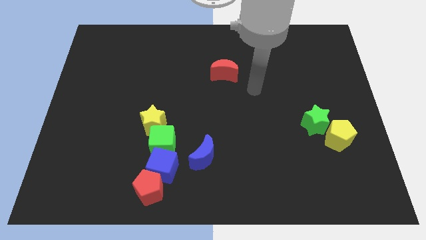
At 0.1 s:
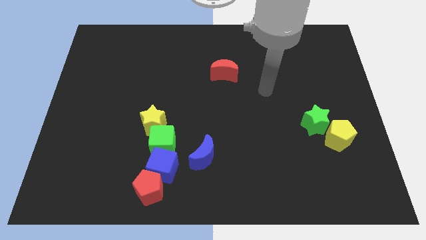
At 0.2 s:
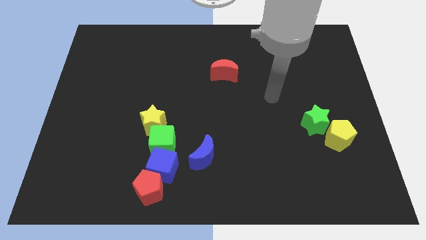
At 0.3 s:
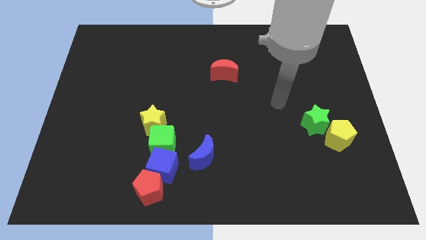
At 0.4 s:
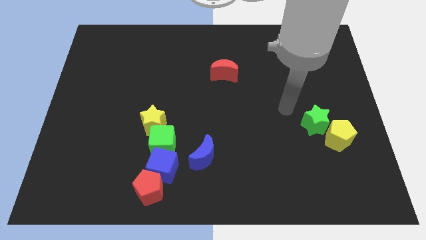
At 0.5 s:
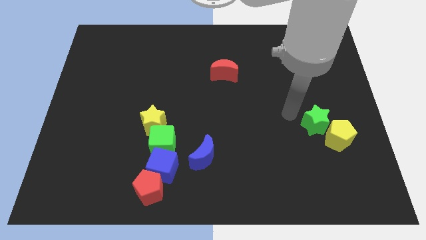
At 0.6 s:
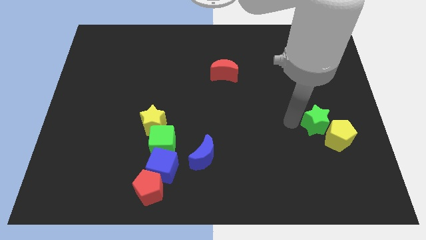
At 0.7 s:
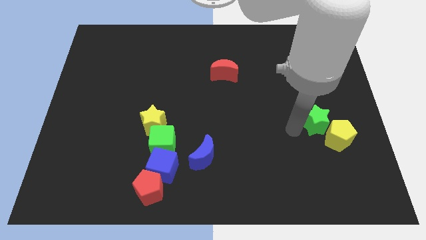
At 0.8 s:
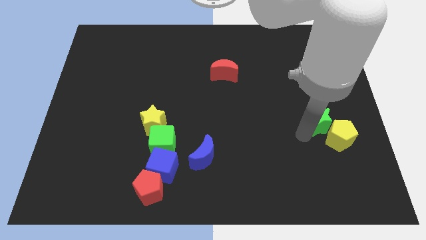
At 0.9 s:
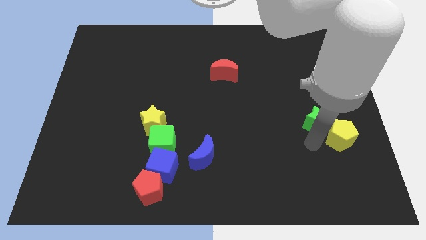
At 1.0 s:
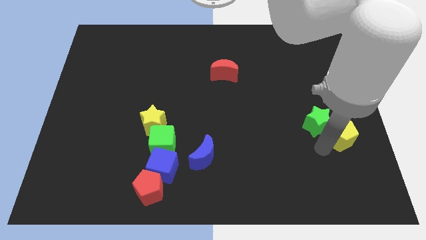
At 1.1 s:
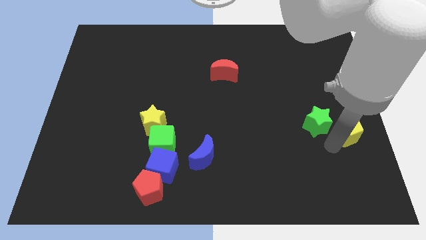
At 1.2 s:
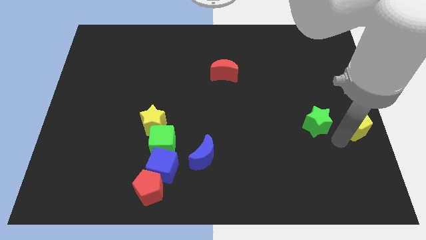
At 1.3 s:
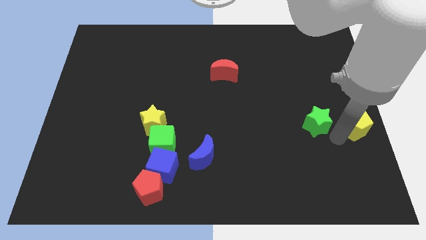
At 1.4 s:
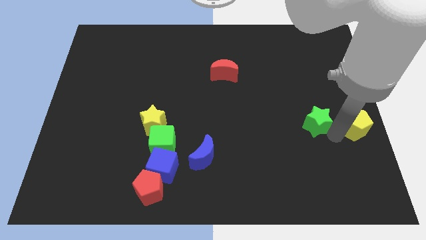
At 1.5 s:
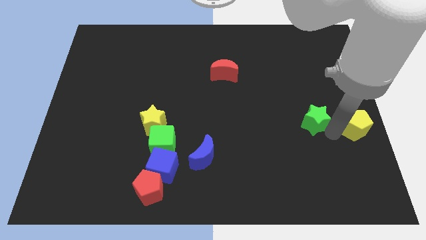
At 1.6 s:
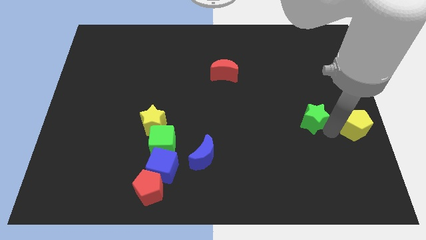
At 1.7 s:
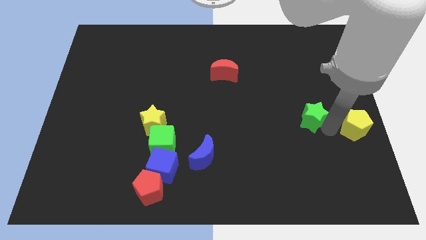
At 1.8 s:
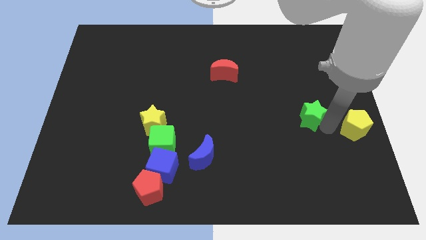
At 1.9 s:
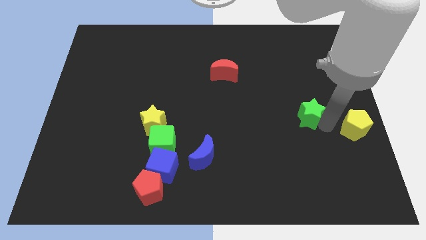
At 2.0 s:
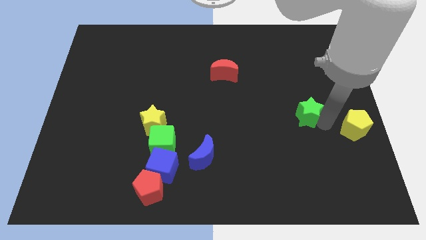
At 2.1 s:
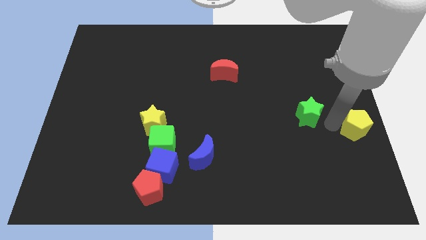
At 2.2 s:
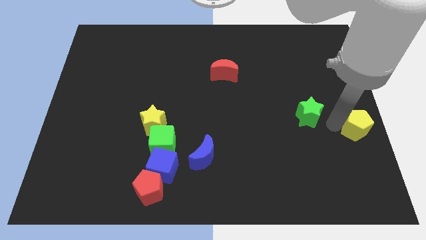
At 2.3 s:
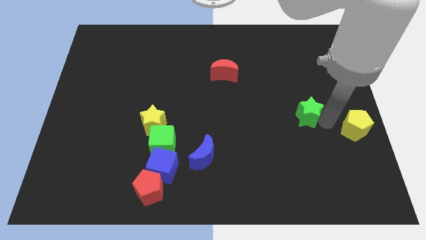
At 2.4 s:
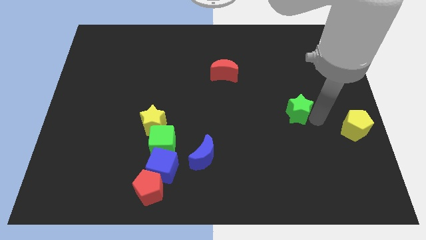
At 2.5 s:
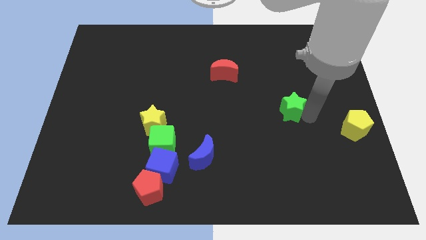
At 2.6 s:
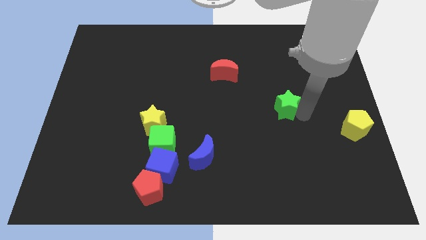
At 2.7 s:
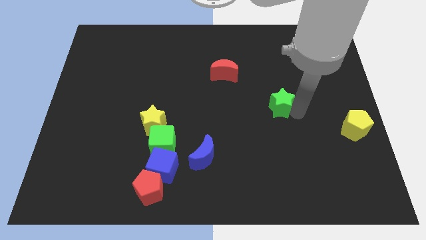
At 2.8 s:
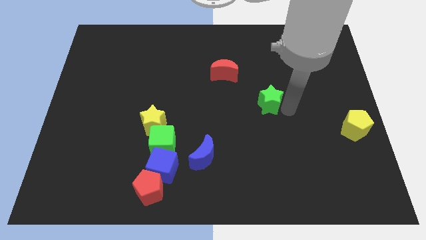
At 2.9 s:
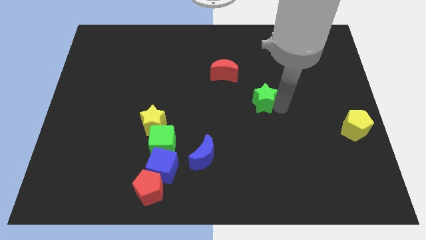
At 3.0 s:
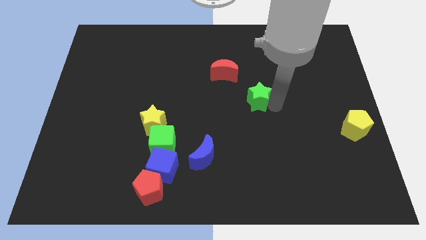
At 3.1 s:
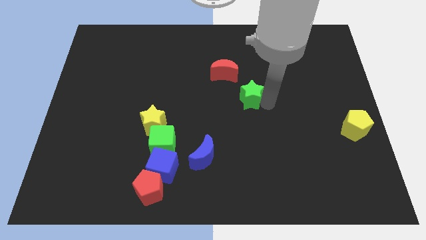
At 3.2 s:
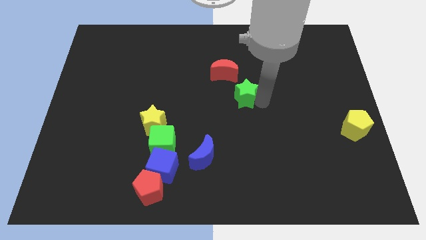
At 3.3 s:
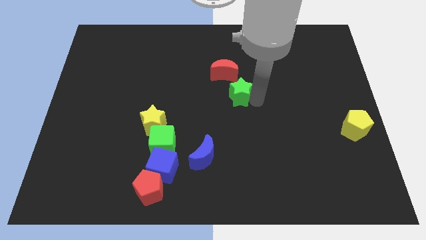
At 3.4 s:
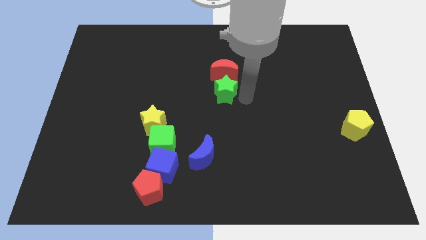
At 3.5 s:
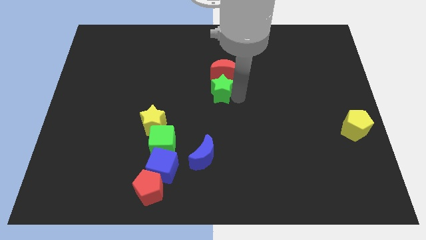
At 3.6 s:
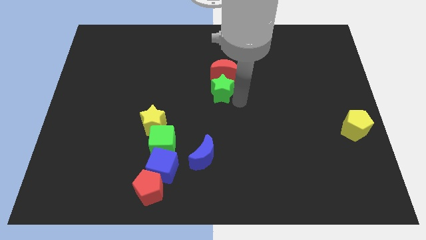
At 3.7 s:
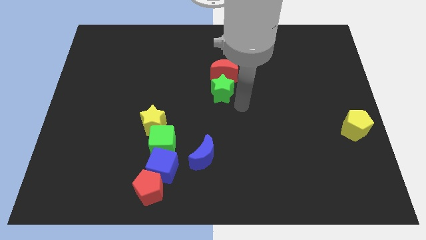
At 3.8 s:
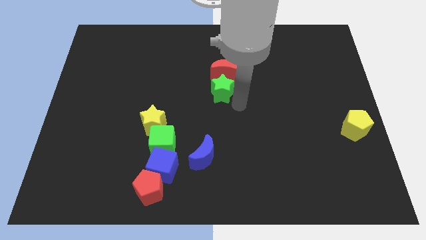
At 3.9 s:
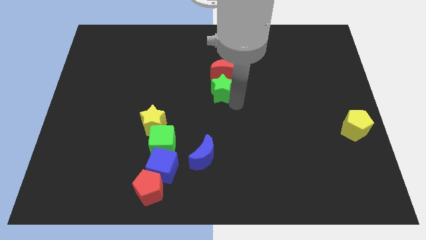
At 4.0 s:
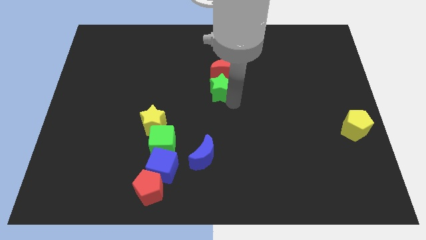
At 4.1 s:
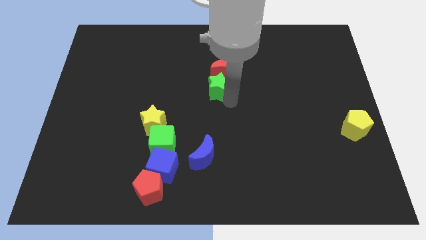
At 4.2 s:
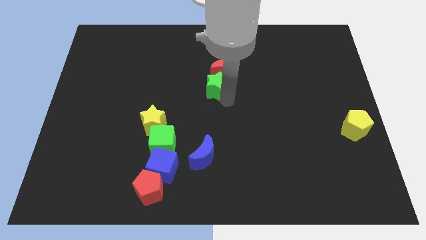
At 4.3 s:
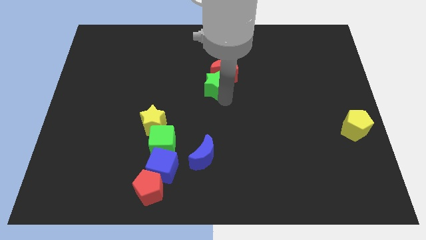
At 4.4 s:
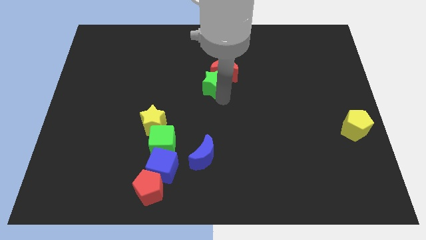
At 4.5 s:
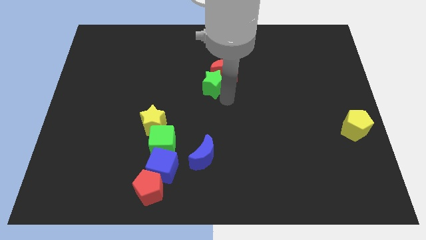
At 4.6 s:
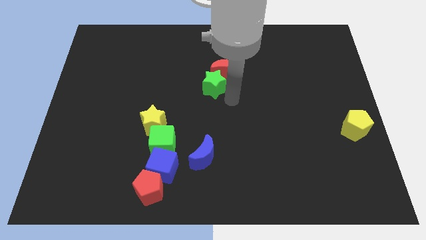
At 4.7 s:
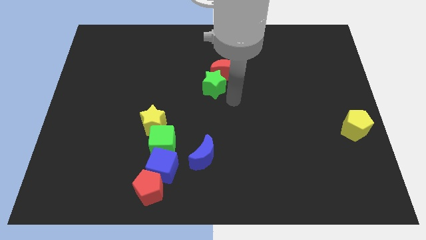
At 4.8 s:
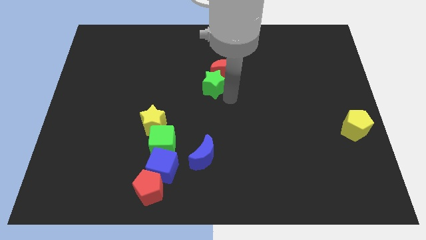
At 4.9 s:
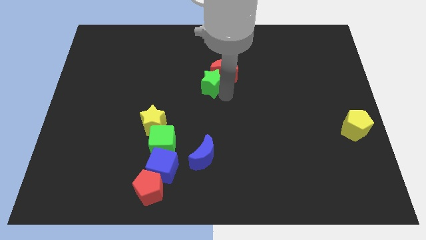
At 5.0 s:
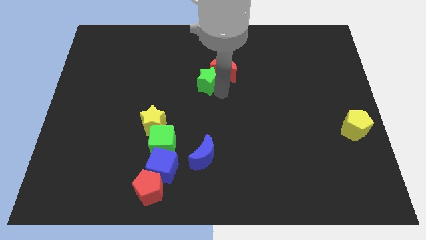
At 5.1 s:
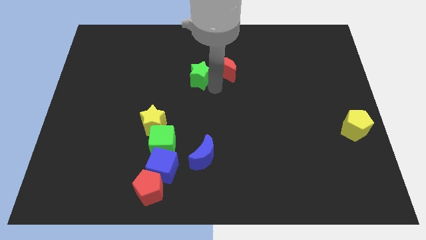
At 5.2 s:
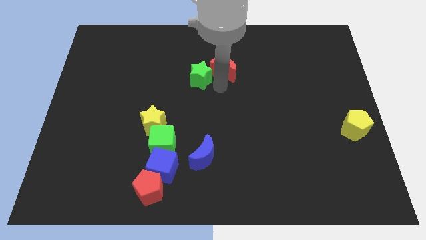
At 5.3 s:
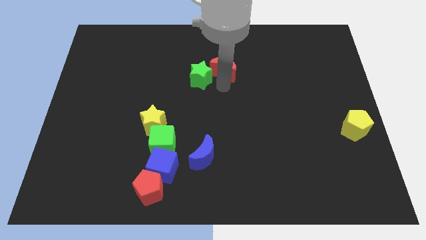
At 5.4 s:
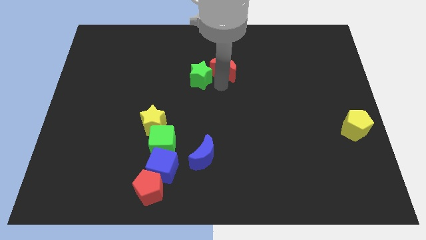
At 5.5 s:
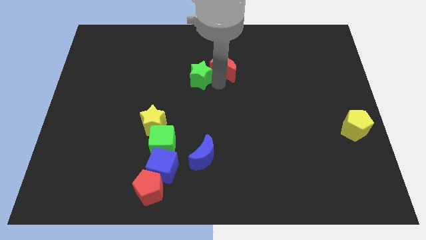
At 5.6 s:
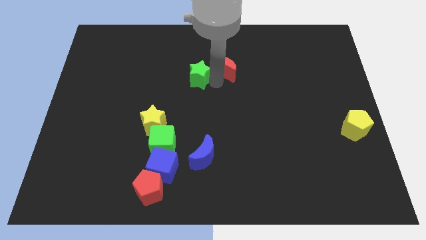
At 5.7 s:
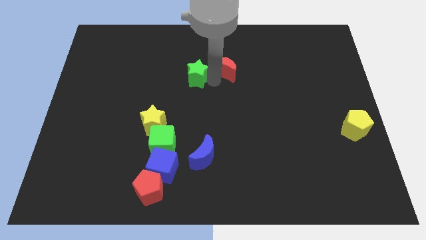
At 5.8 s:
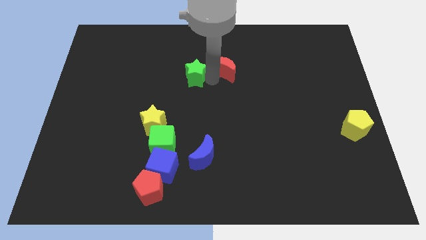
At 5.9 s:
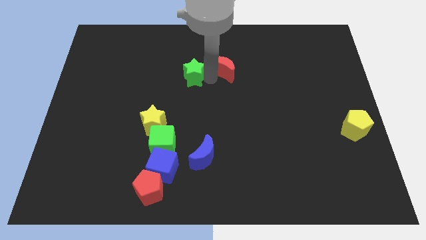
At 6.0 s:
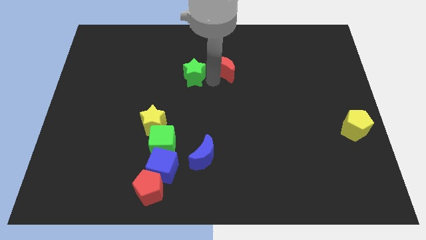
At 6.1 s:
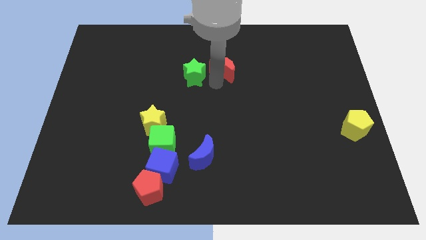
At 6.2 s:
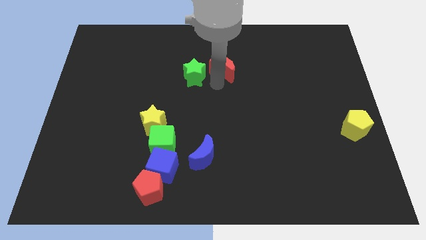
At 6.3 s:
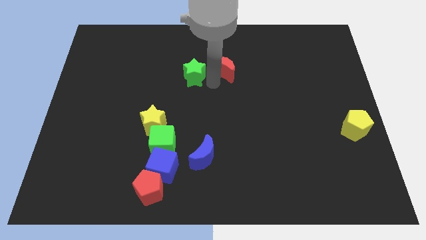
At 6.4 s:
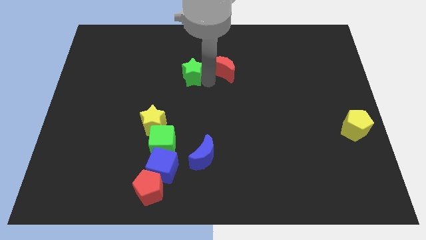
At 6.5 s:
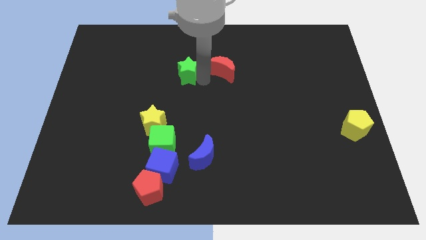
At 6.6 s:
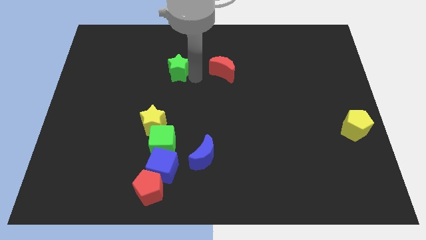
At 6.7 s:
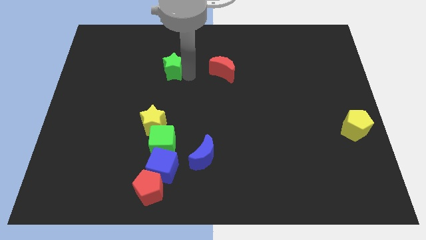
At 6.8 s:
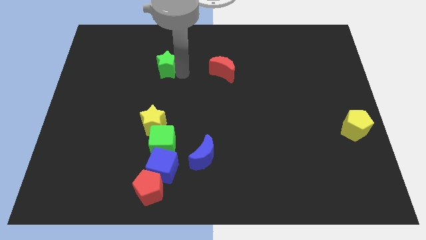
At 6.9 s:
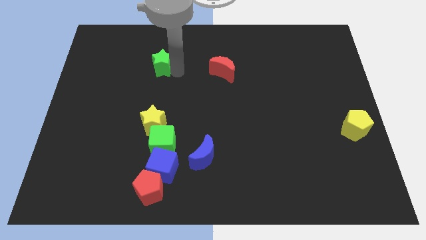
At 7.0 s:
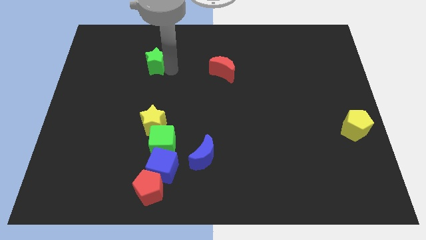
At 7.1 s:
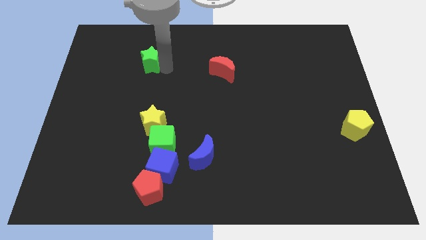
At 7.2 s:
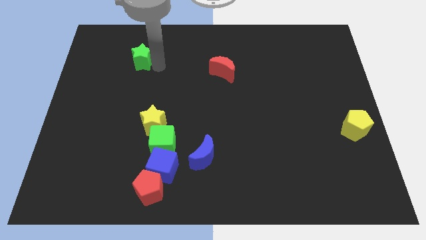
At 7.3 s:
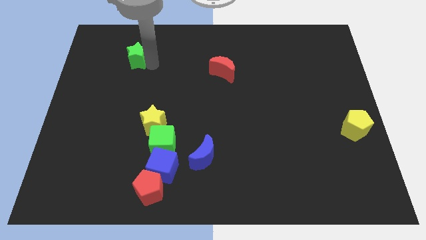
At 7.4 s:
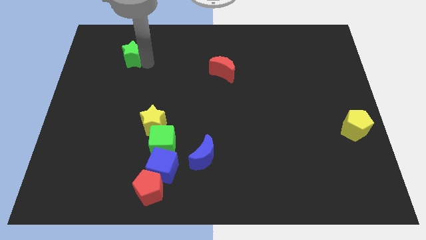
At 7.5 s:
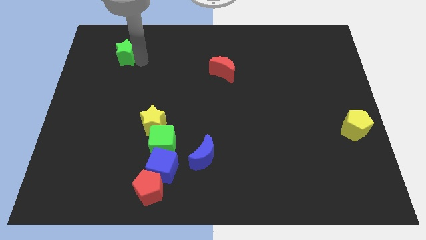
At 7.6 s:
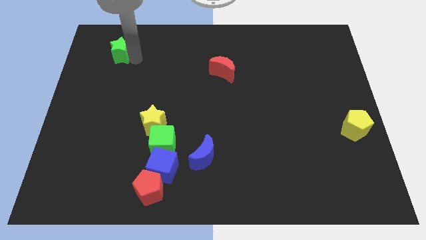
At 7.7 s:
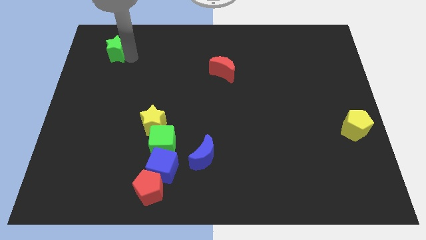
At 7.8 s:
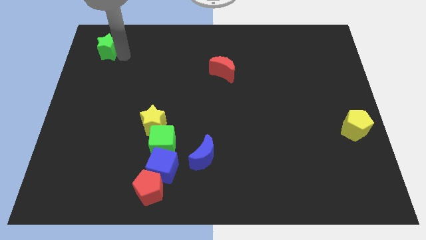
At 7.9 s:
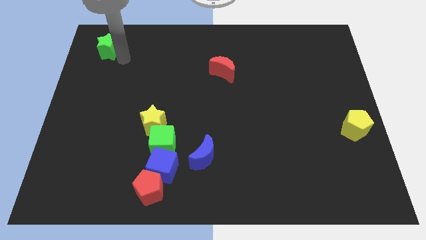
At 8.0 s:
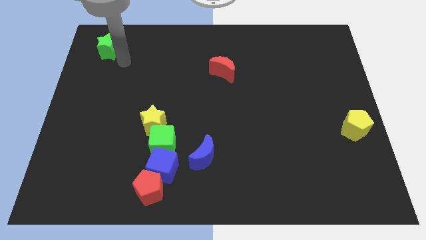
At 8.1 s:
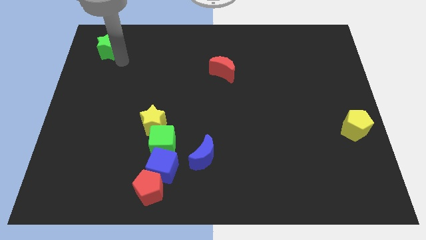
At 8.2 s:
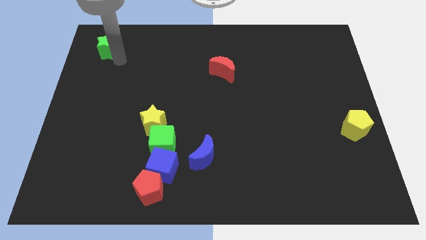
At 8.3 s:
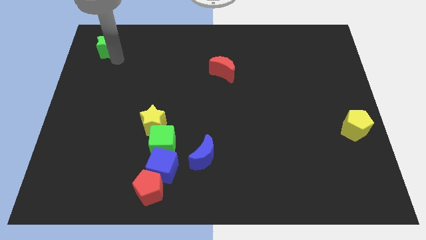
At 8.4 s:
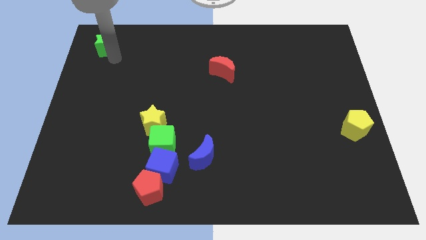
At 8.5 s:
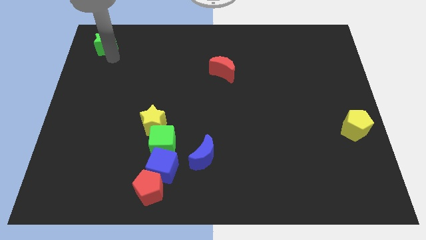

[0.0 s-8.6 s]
move the green star to the upper left corner
